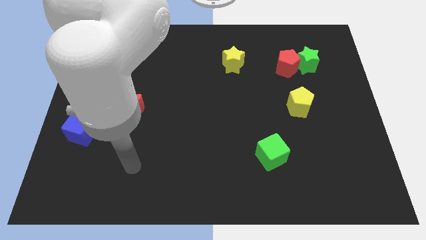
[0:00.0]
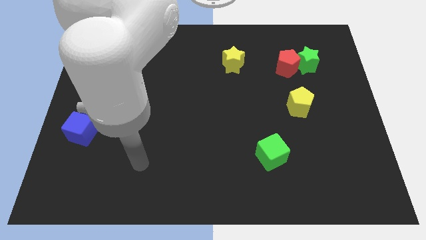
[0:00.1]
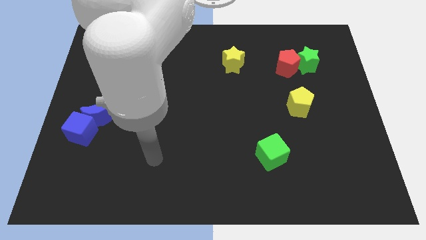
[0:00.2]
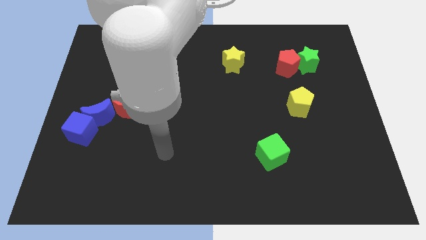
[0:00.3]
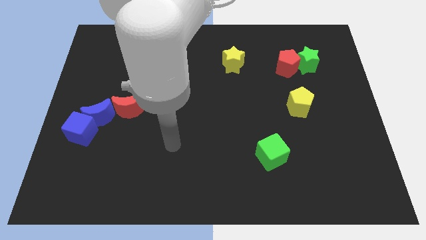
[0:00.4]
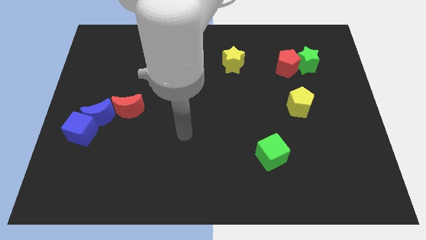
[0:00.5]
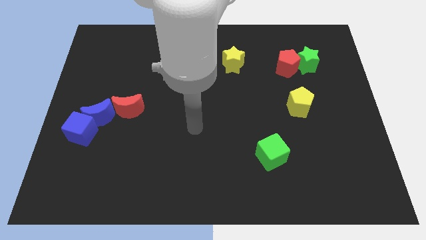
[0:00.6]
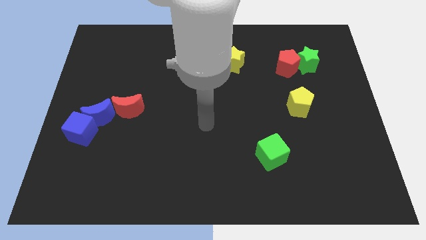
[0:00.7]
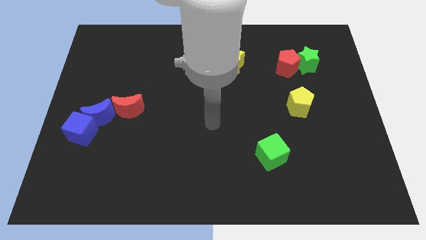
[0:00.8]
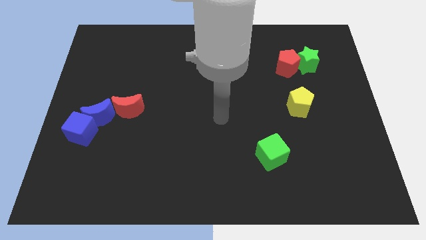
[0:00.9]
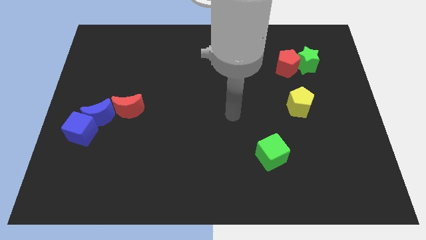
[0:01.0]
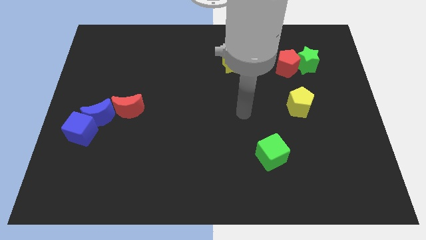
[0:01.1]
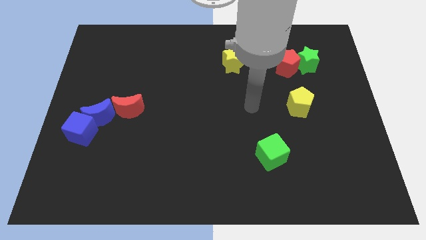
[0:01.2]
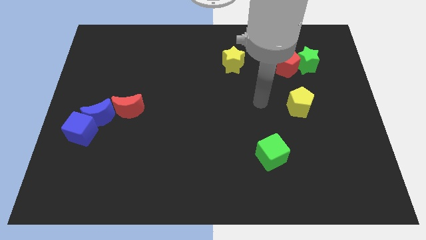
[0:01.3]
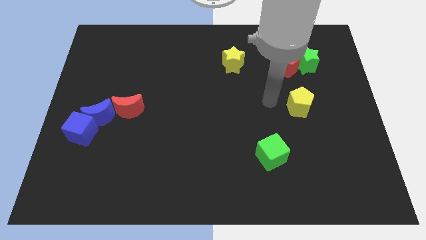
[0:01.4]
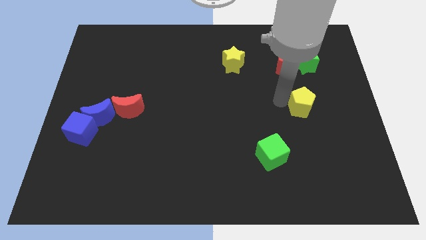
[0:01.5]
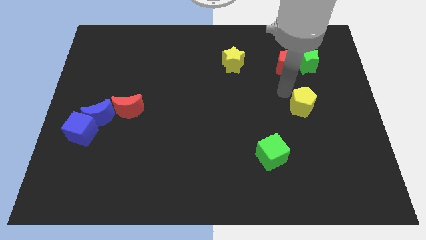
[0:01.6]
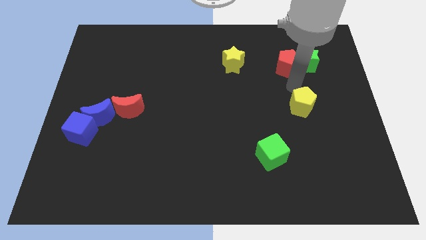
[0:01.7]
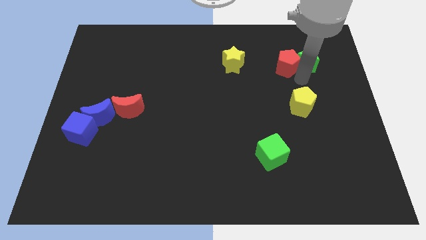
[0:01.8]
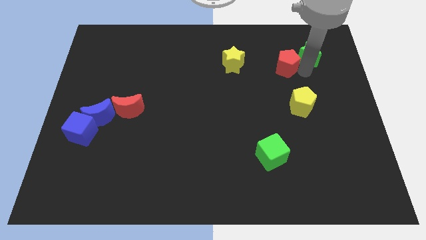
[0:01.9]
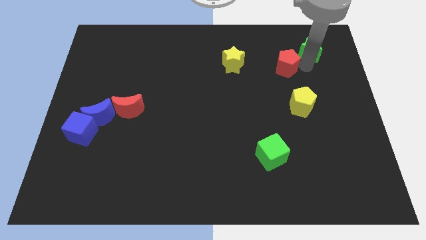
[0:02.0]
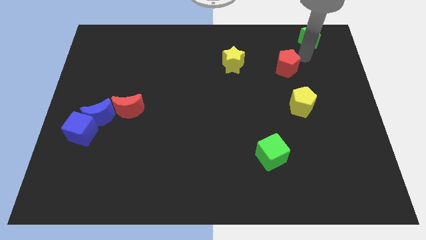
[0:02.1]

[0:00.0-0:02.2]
pull the red pentagon apart from the green star

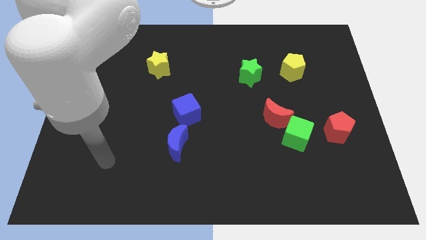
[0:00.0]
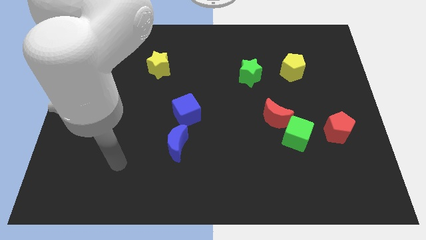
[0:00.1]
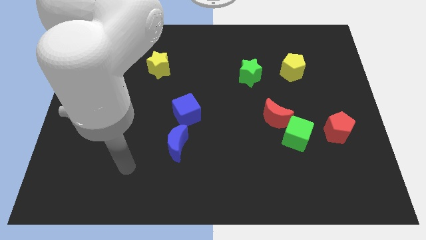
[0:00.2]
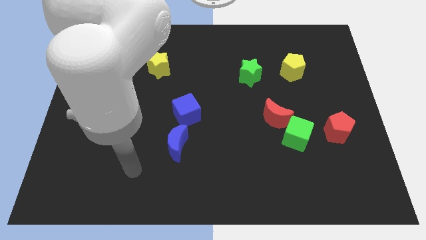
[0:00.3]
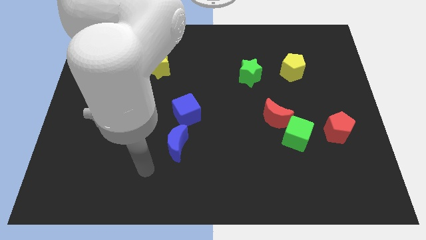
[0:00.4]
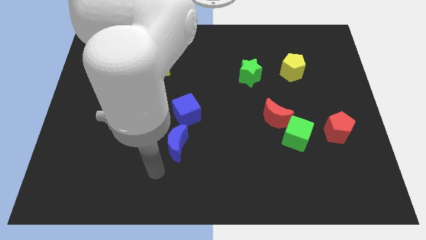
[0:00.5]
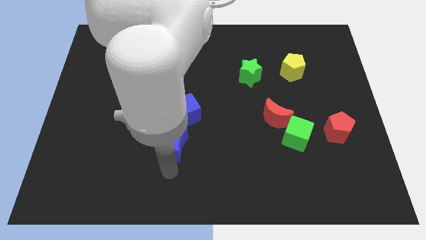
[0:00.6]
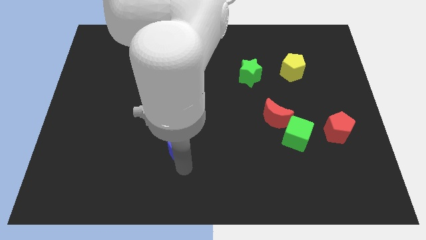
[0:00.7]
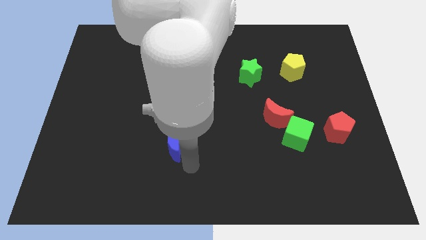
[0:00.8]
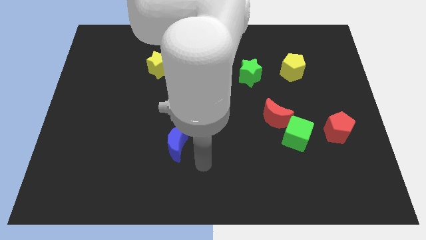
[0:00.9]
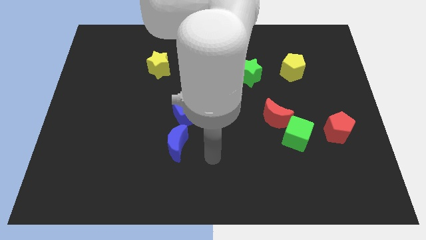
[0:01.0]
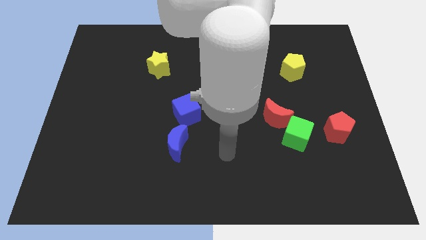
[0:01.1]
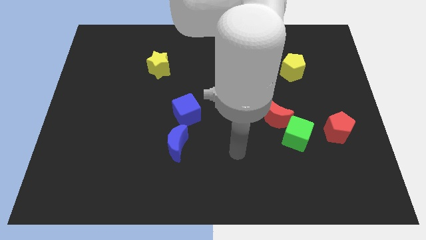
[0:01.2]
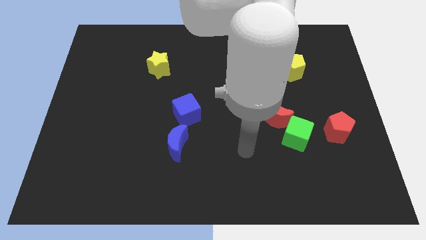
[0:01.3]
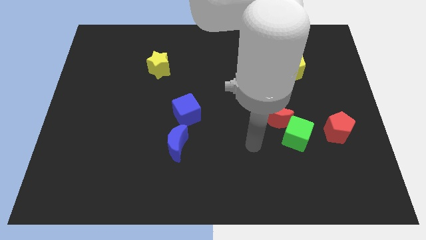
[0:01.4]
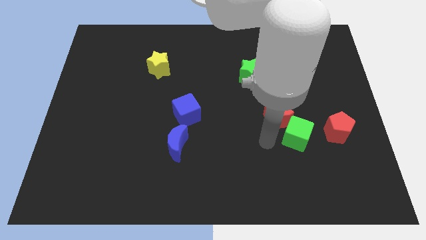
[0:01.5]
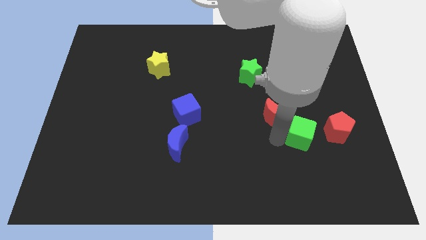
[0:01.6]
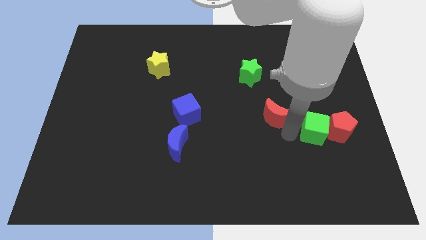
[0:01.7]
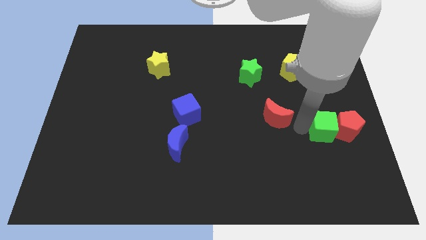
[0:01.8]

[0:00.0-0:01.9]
move the red moon away from the green cube

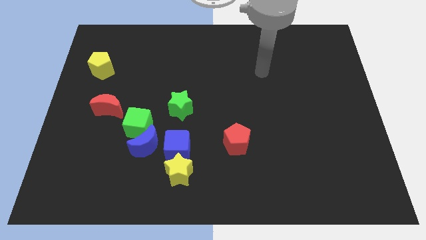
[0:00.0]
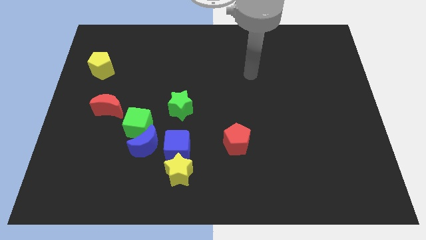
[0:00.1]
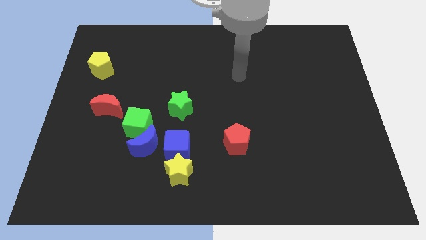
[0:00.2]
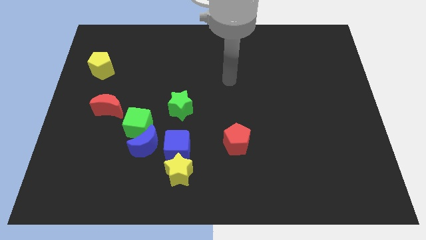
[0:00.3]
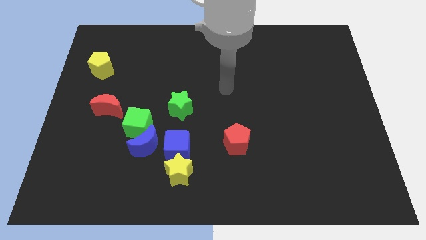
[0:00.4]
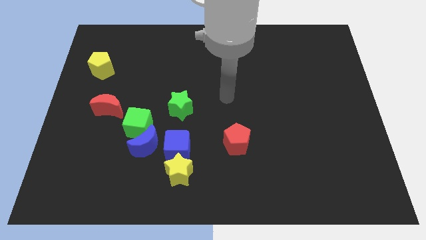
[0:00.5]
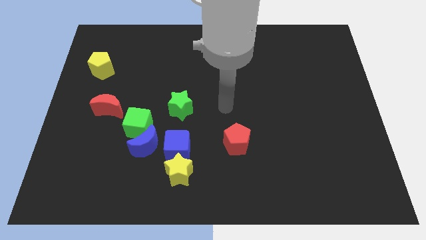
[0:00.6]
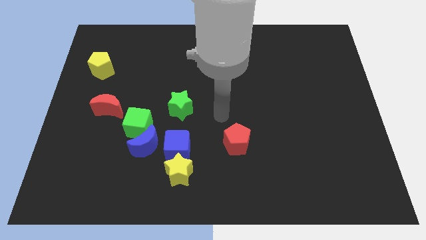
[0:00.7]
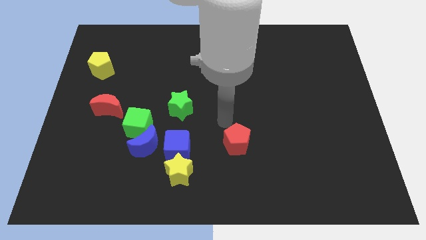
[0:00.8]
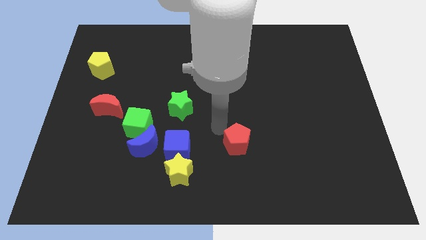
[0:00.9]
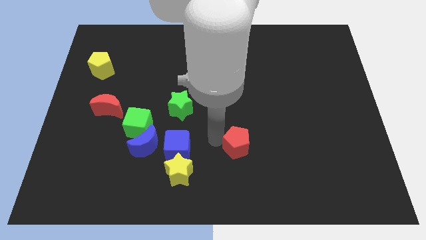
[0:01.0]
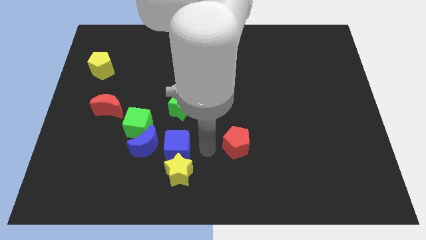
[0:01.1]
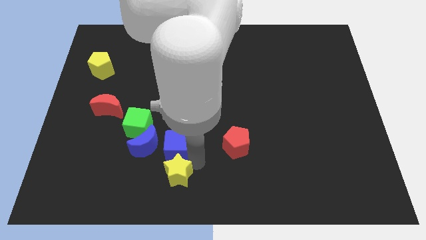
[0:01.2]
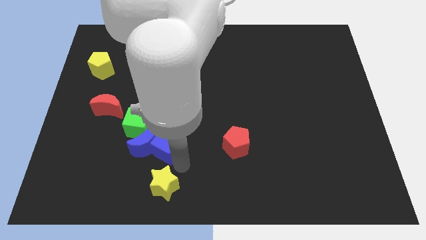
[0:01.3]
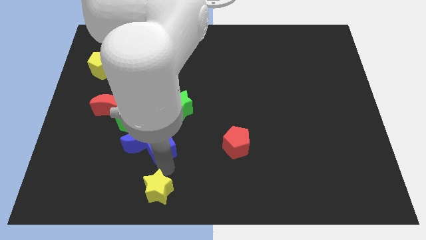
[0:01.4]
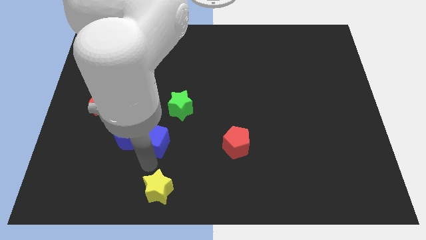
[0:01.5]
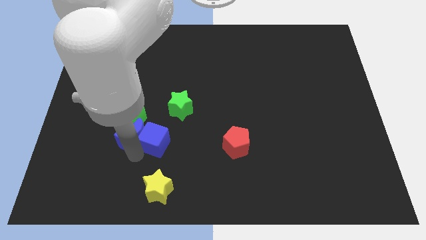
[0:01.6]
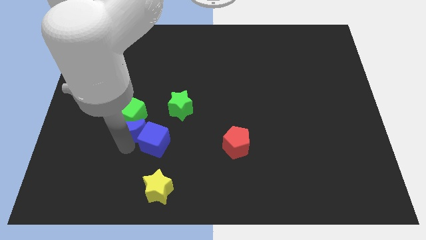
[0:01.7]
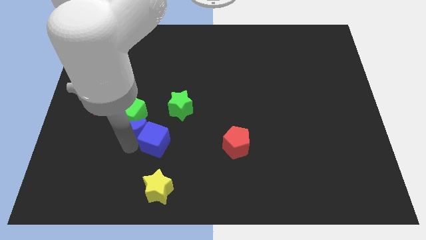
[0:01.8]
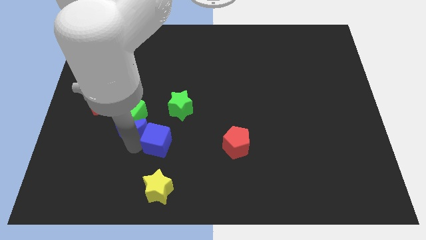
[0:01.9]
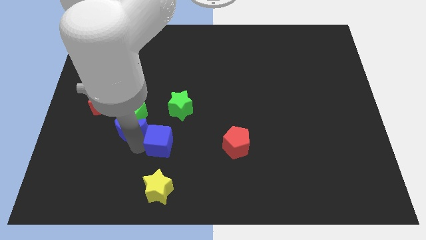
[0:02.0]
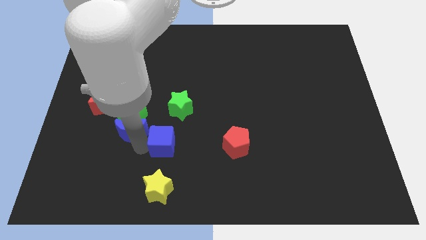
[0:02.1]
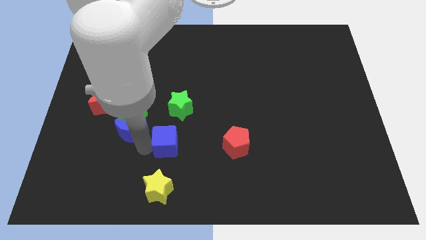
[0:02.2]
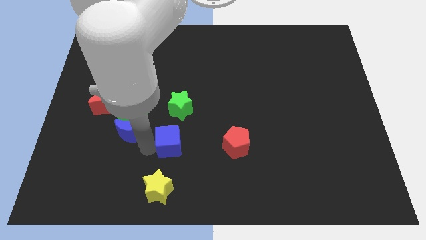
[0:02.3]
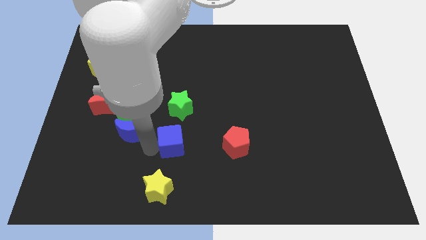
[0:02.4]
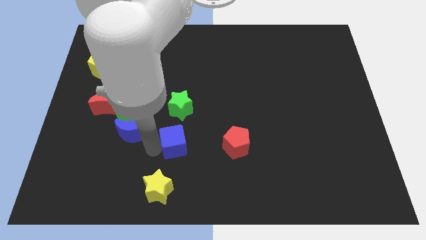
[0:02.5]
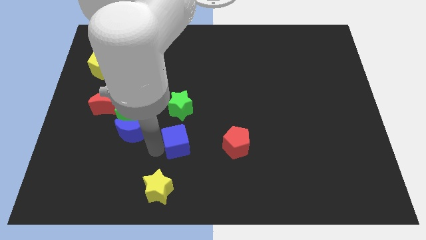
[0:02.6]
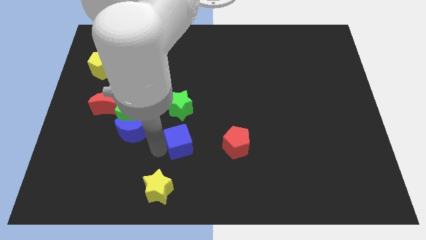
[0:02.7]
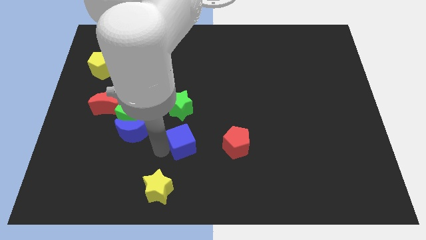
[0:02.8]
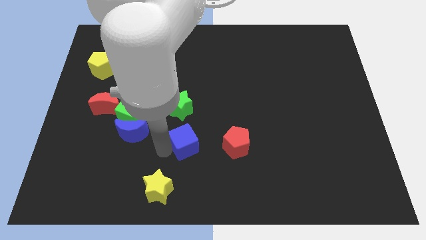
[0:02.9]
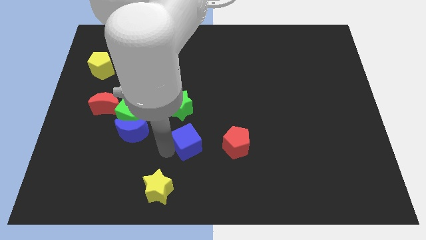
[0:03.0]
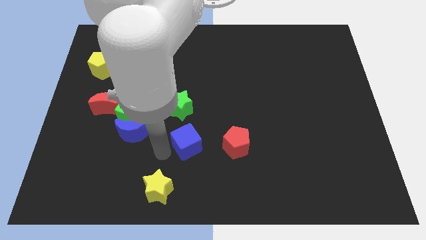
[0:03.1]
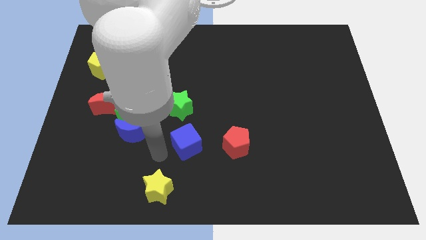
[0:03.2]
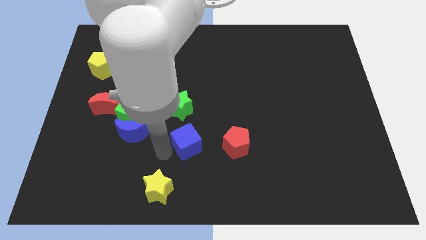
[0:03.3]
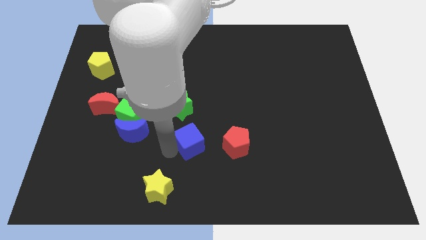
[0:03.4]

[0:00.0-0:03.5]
pull the blue cube apart from the yellow star and blue moon

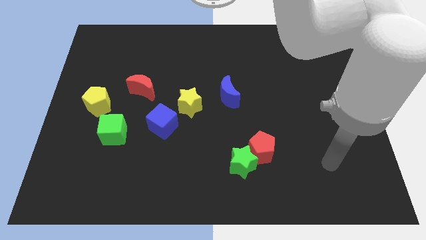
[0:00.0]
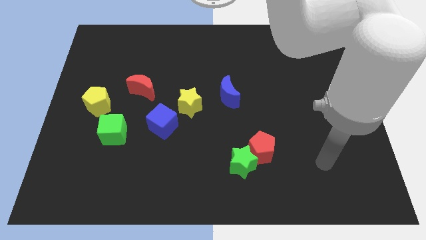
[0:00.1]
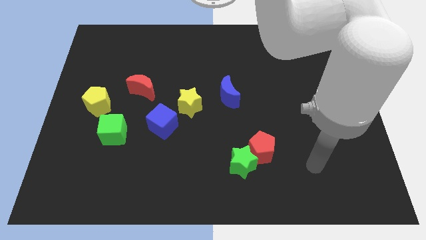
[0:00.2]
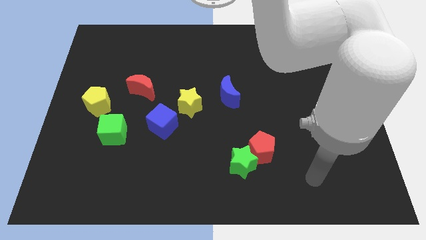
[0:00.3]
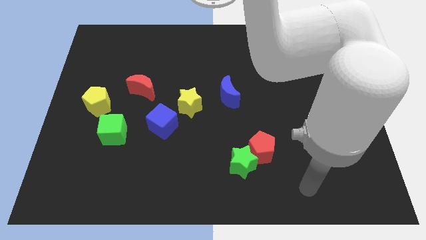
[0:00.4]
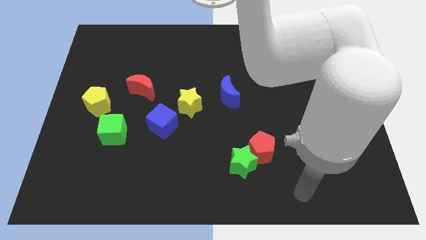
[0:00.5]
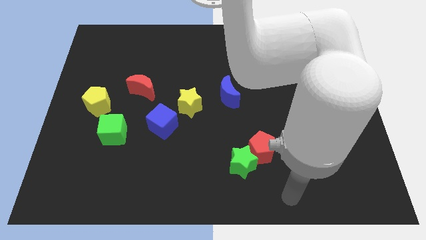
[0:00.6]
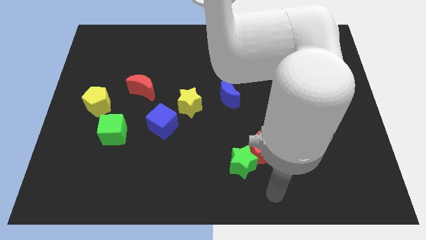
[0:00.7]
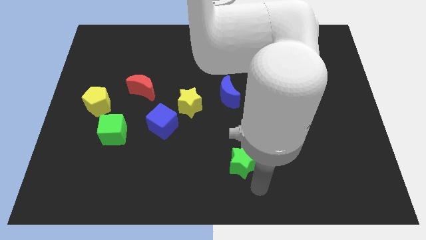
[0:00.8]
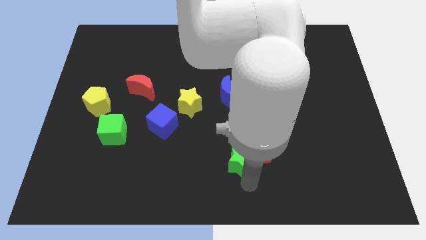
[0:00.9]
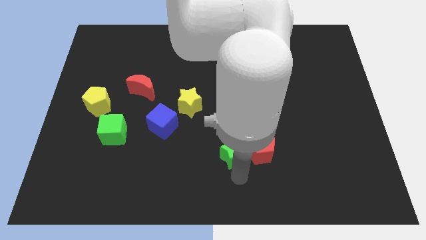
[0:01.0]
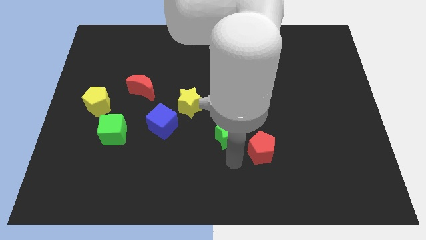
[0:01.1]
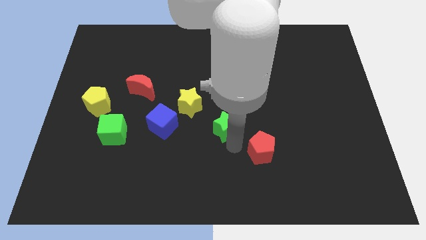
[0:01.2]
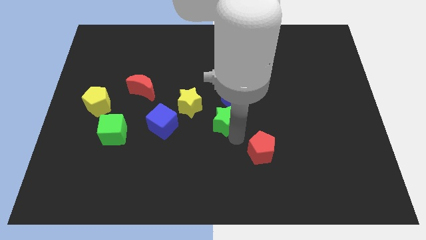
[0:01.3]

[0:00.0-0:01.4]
move the red pentagon away from the green star

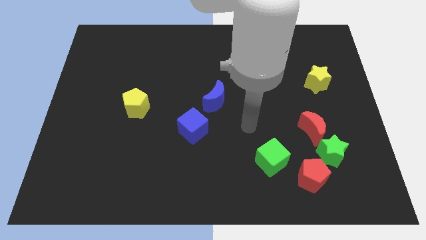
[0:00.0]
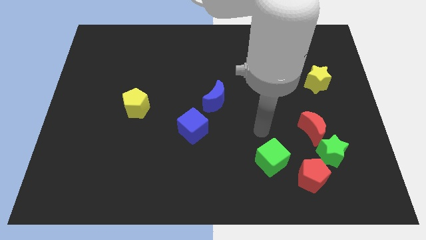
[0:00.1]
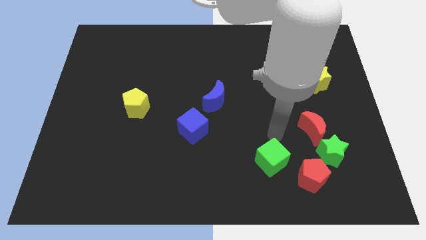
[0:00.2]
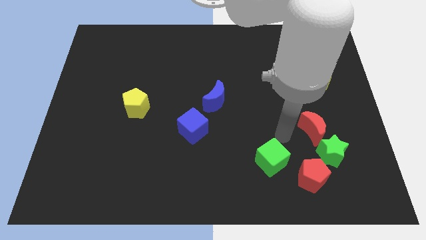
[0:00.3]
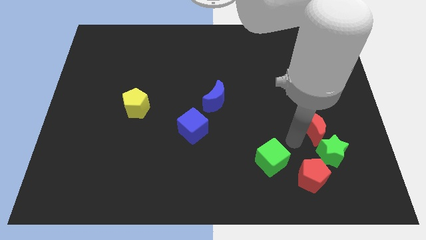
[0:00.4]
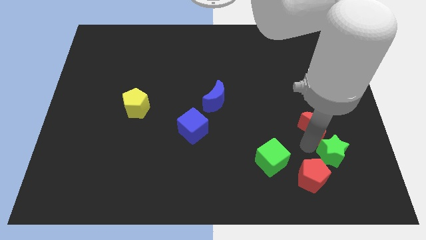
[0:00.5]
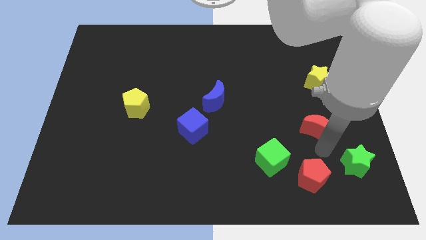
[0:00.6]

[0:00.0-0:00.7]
move the red moon away from the green star
